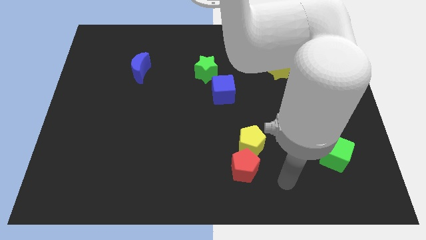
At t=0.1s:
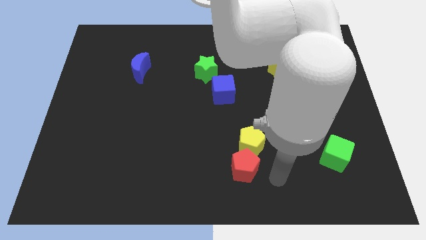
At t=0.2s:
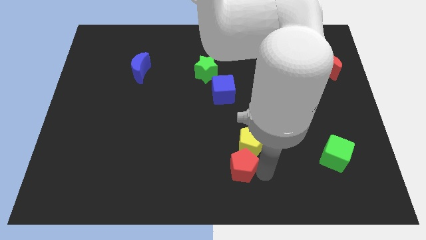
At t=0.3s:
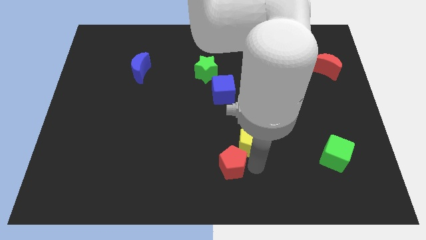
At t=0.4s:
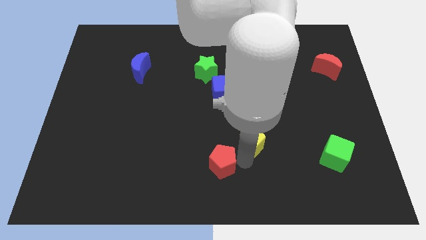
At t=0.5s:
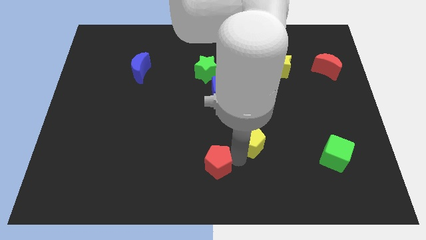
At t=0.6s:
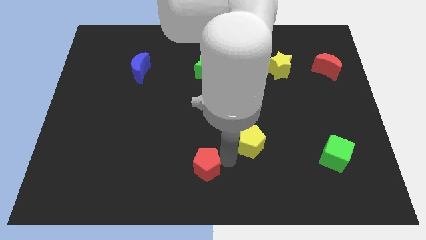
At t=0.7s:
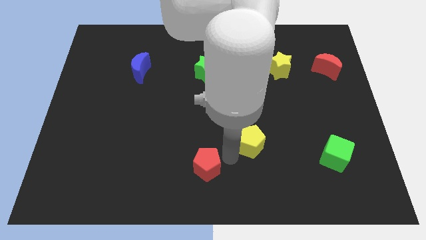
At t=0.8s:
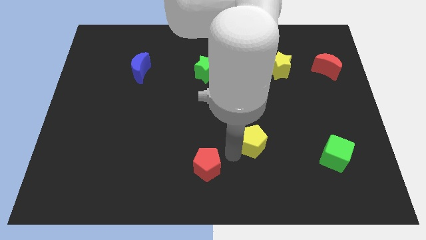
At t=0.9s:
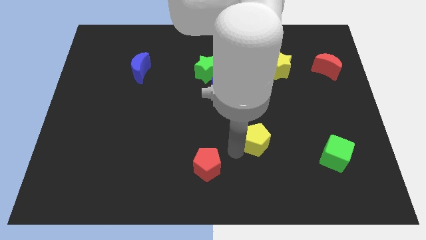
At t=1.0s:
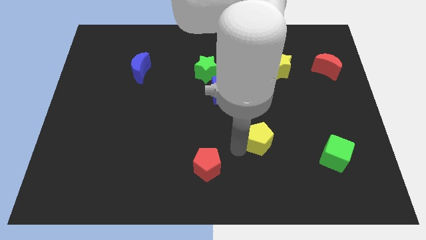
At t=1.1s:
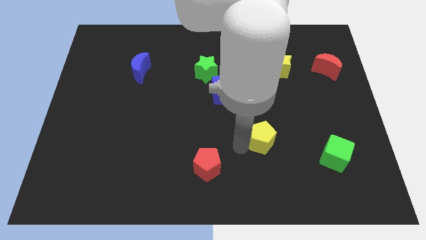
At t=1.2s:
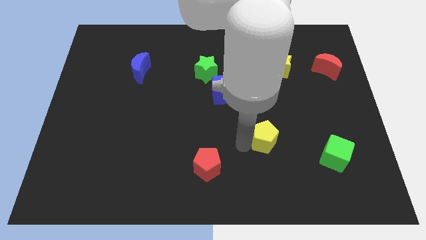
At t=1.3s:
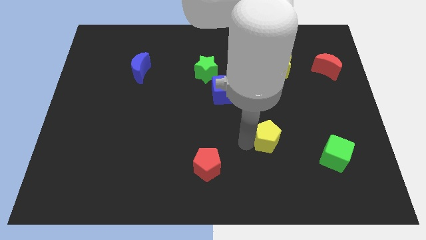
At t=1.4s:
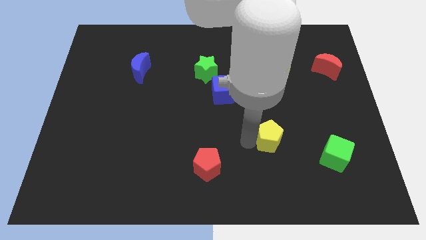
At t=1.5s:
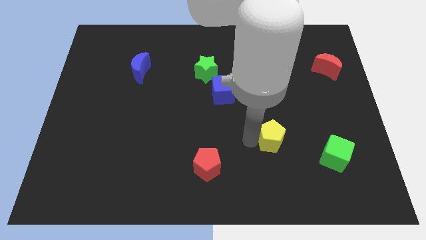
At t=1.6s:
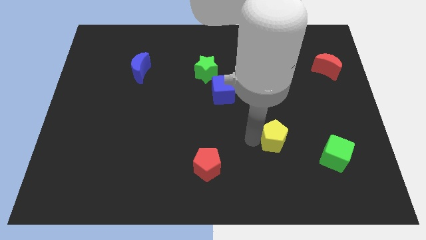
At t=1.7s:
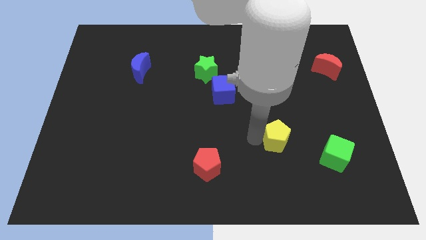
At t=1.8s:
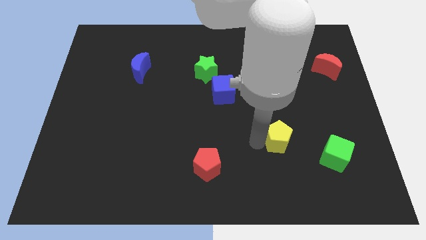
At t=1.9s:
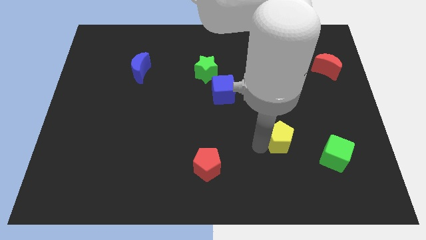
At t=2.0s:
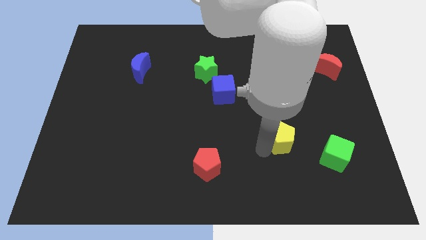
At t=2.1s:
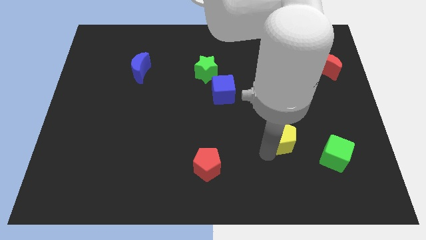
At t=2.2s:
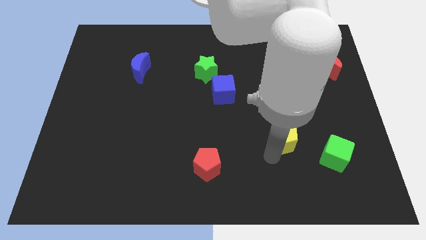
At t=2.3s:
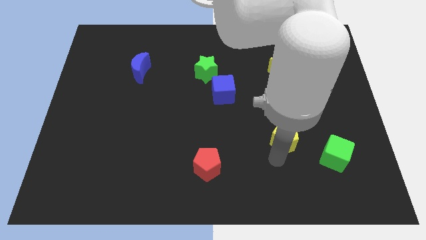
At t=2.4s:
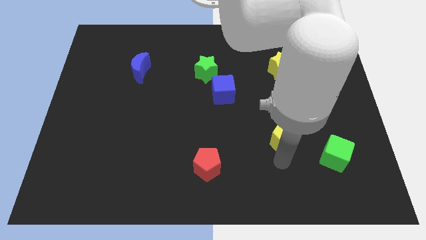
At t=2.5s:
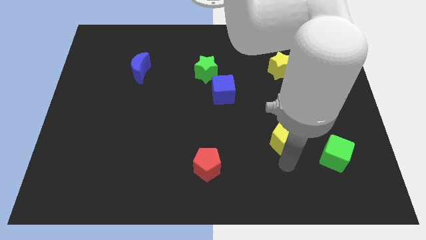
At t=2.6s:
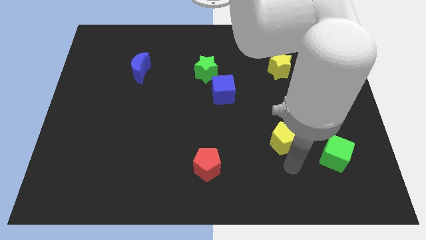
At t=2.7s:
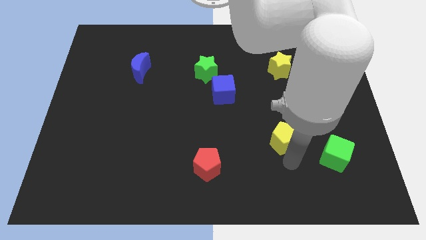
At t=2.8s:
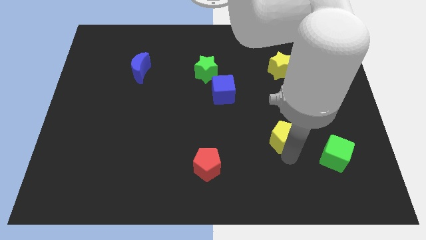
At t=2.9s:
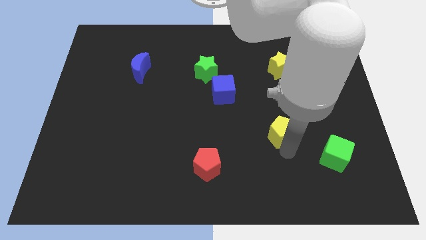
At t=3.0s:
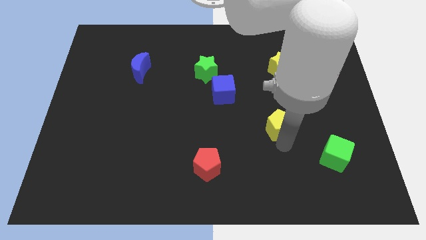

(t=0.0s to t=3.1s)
slightly slide the yellow pentagon upwards and right diagonally

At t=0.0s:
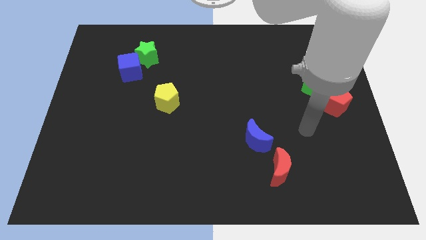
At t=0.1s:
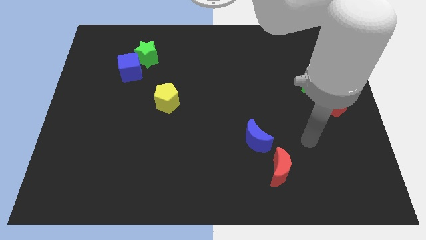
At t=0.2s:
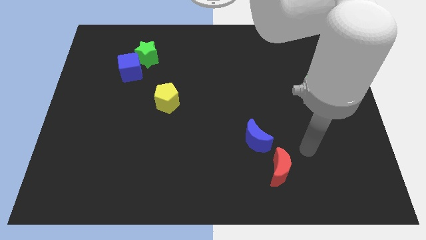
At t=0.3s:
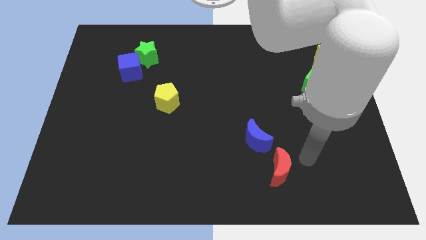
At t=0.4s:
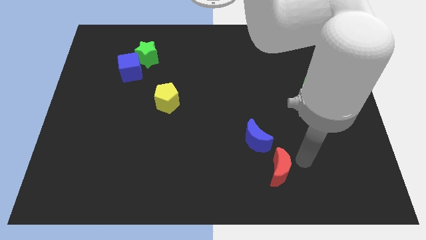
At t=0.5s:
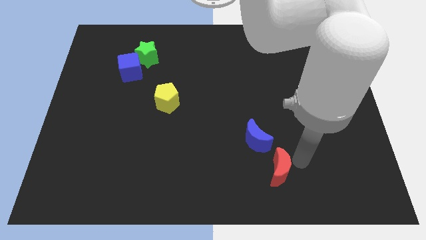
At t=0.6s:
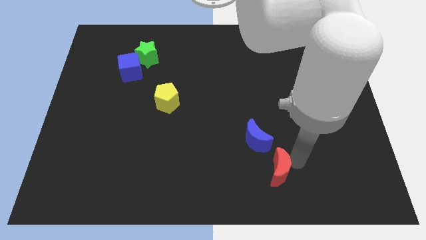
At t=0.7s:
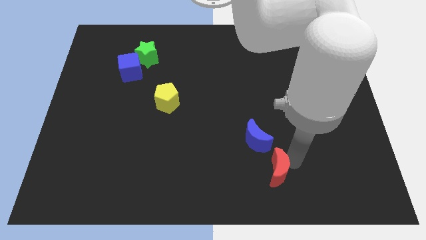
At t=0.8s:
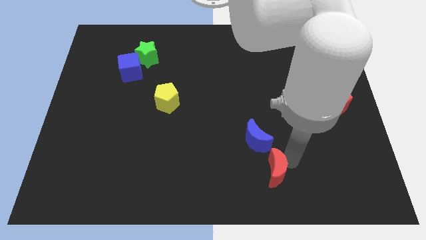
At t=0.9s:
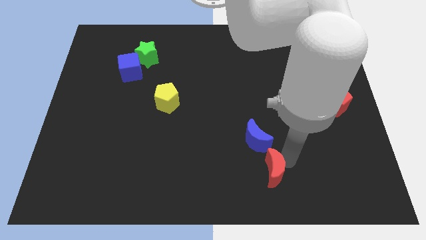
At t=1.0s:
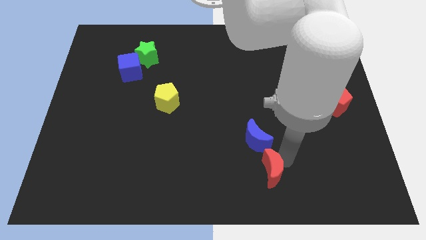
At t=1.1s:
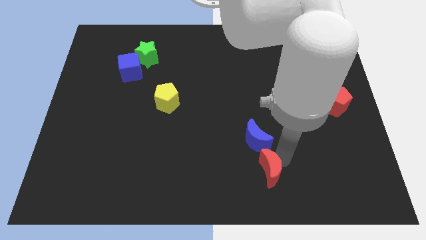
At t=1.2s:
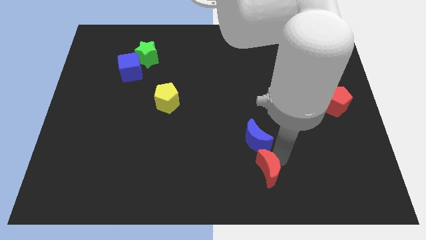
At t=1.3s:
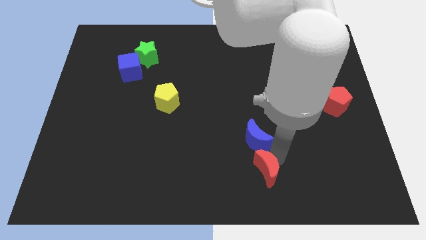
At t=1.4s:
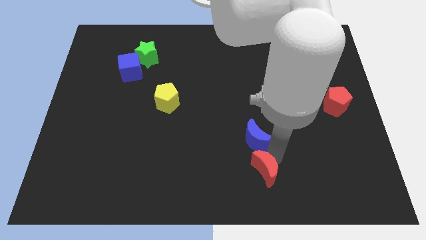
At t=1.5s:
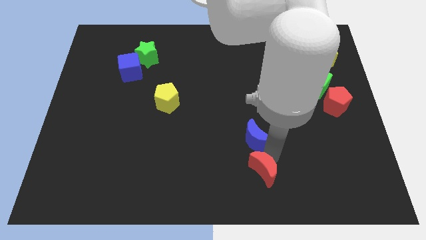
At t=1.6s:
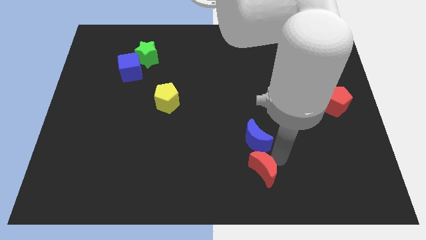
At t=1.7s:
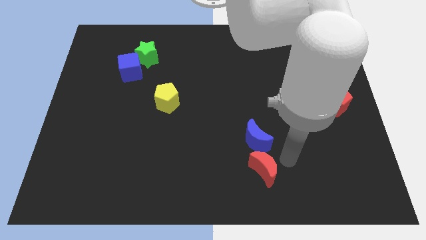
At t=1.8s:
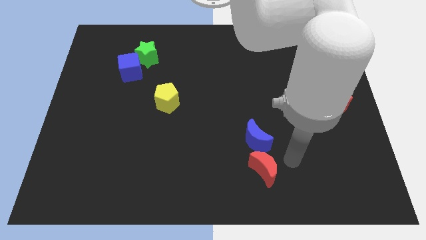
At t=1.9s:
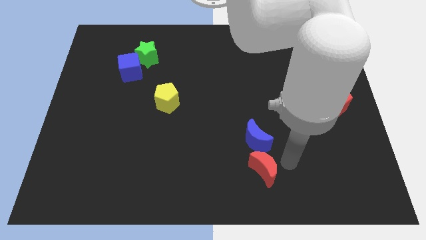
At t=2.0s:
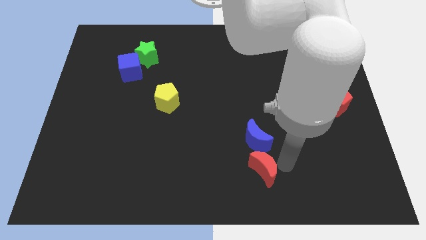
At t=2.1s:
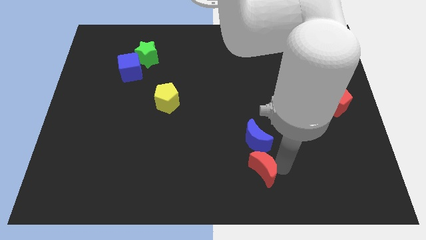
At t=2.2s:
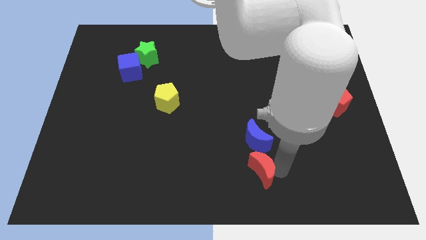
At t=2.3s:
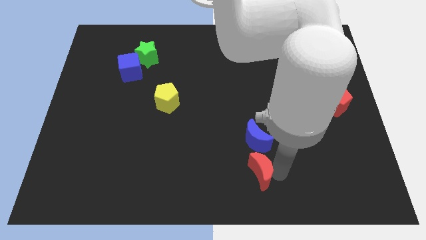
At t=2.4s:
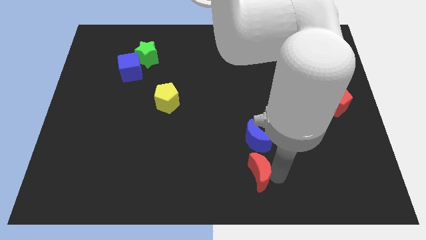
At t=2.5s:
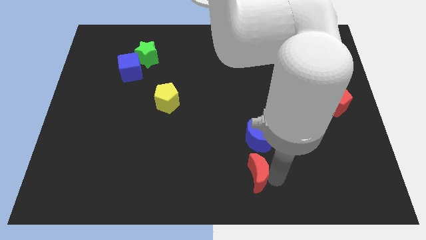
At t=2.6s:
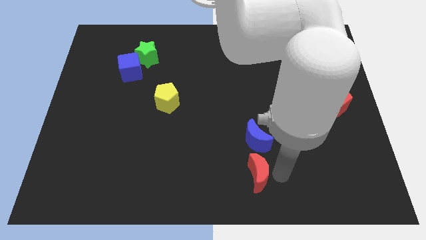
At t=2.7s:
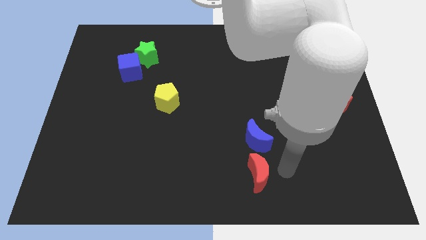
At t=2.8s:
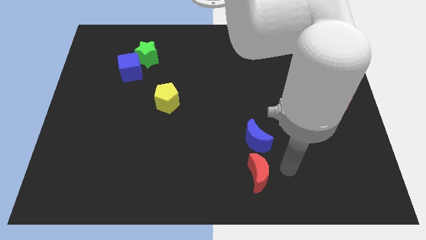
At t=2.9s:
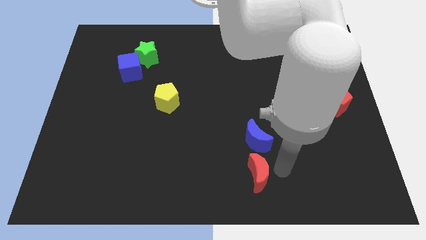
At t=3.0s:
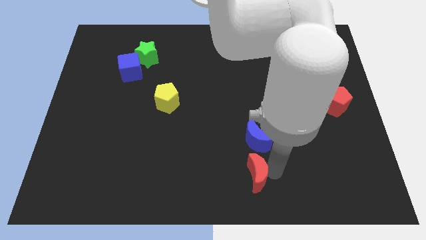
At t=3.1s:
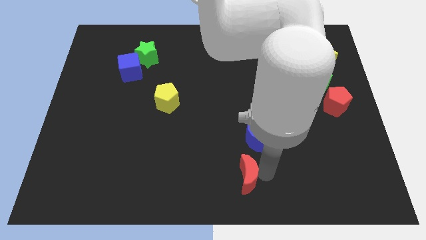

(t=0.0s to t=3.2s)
push the red moon to the left slightly

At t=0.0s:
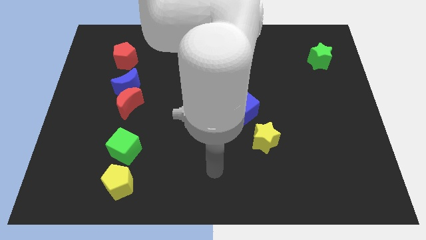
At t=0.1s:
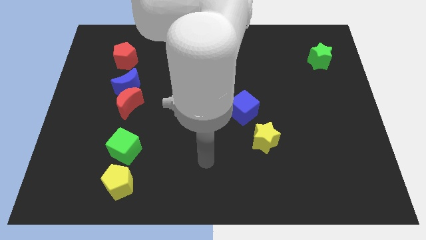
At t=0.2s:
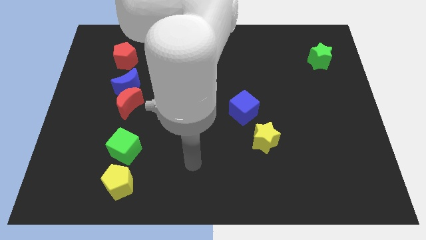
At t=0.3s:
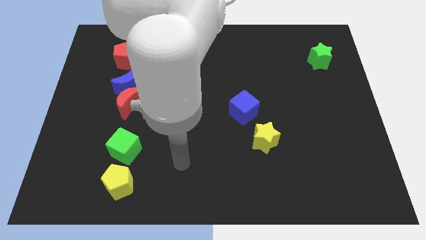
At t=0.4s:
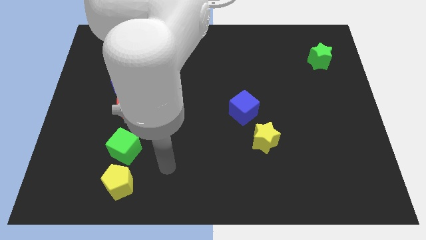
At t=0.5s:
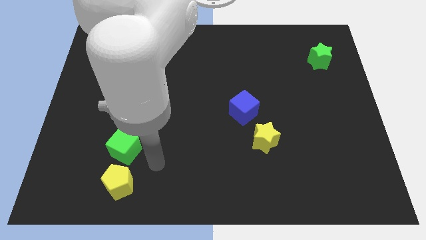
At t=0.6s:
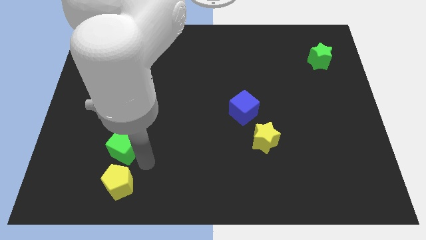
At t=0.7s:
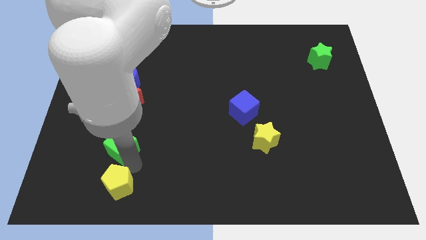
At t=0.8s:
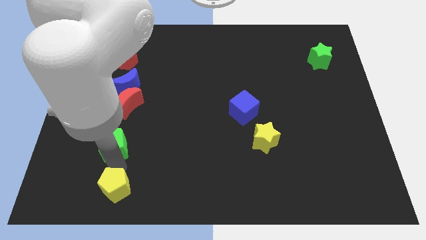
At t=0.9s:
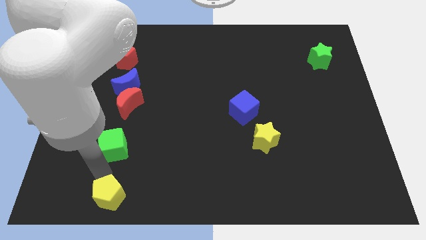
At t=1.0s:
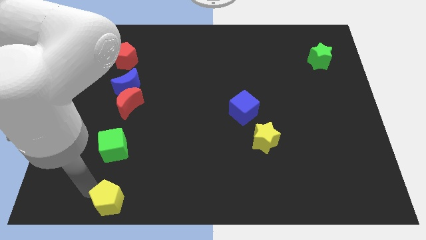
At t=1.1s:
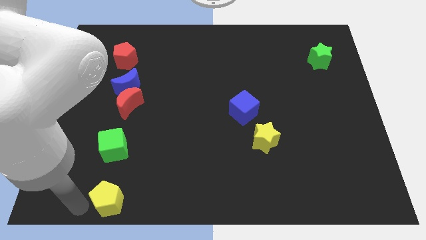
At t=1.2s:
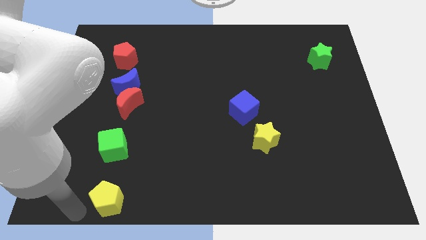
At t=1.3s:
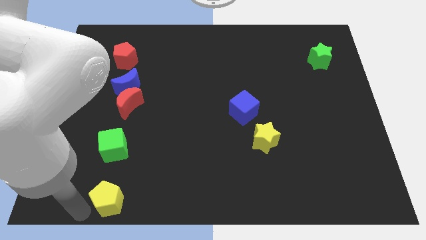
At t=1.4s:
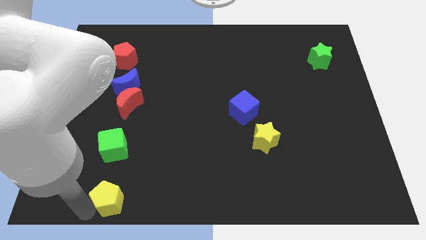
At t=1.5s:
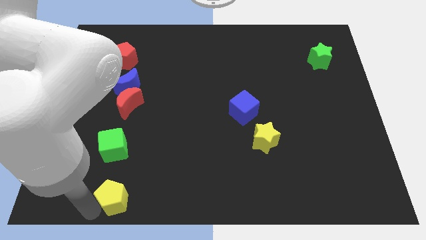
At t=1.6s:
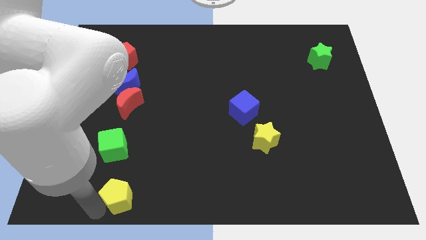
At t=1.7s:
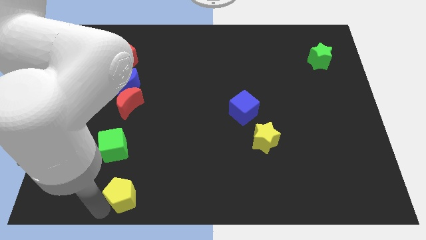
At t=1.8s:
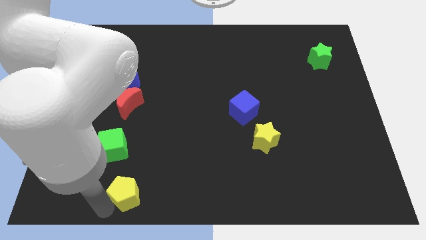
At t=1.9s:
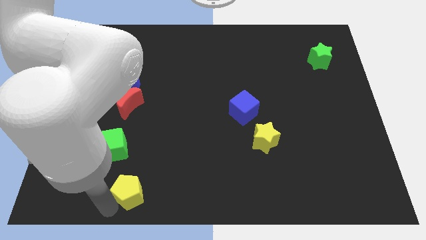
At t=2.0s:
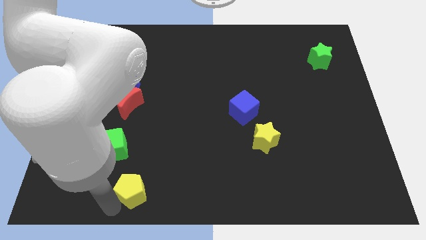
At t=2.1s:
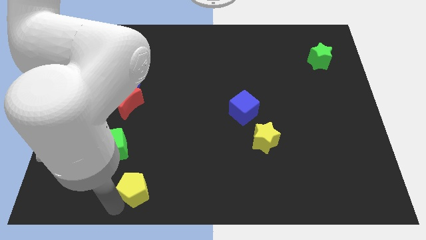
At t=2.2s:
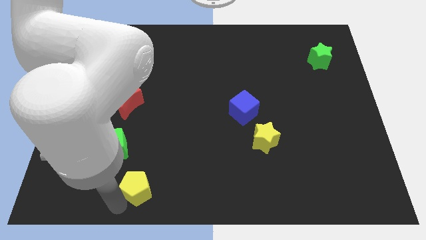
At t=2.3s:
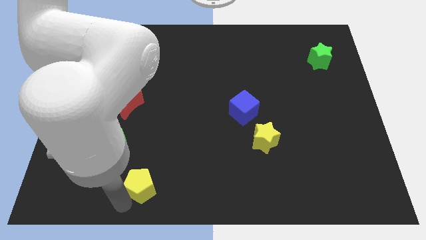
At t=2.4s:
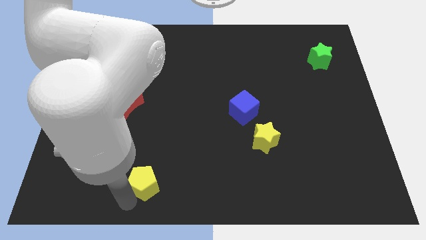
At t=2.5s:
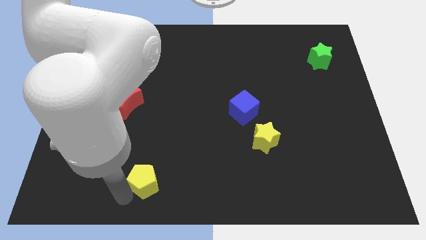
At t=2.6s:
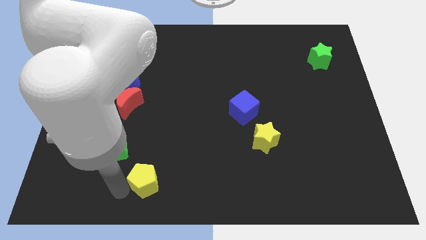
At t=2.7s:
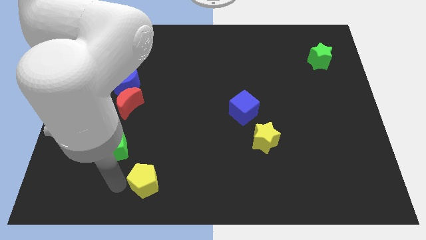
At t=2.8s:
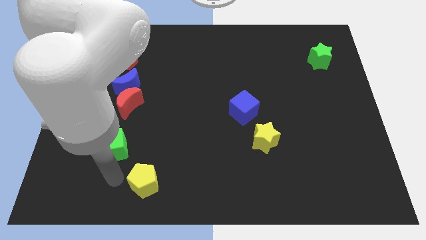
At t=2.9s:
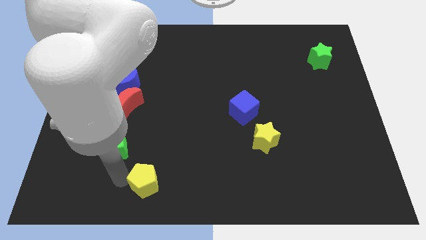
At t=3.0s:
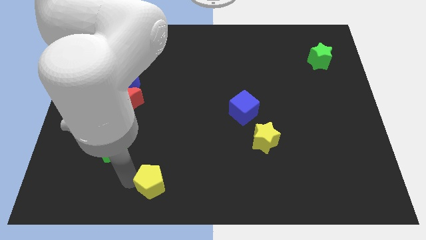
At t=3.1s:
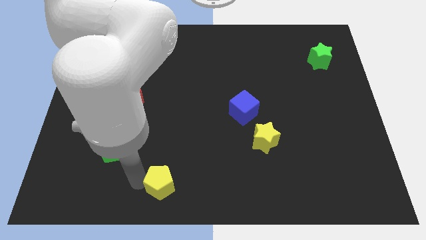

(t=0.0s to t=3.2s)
move the yellow pentagon slightly right
